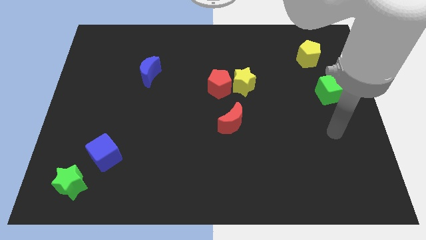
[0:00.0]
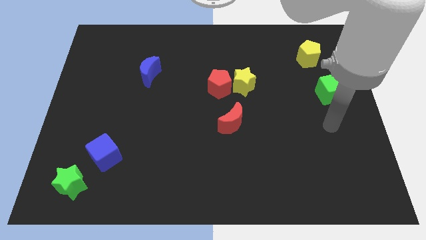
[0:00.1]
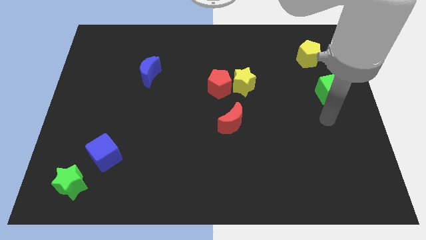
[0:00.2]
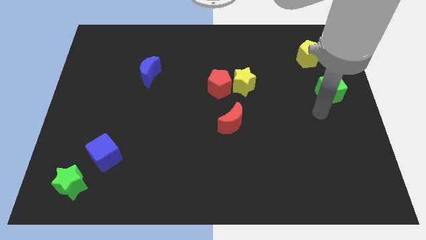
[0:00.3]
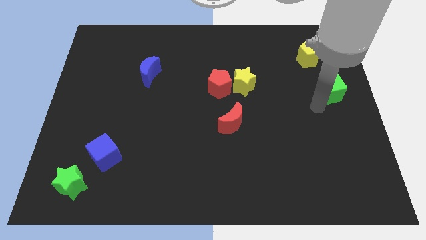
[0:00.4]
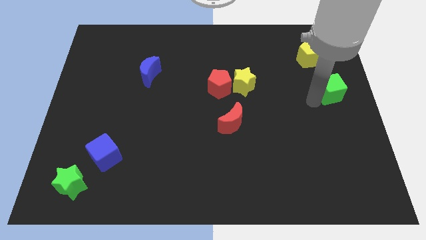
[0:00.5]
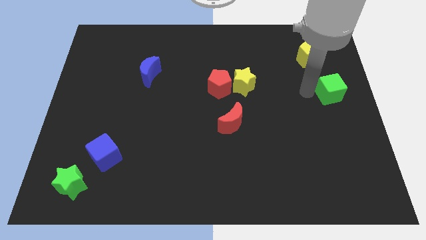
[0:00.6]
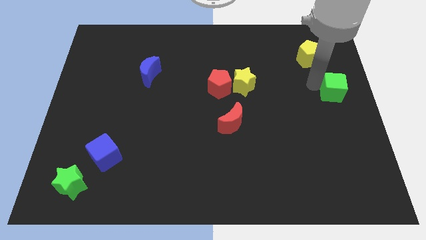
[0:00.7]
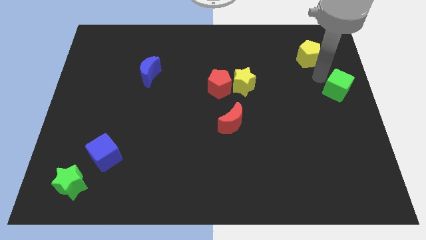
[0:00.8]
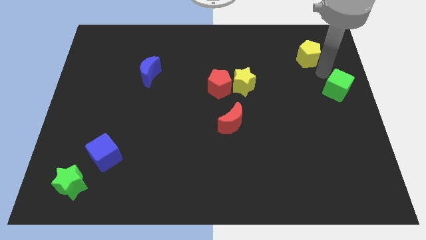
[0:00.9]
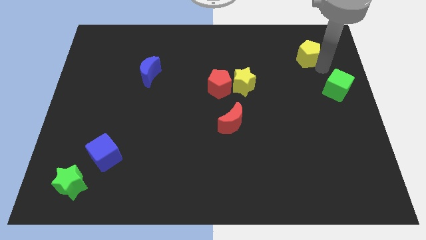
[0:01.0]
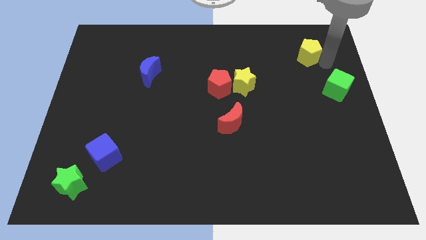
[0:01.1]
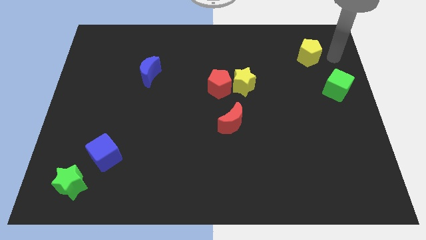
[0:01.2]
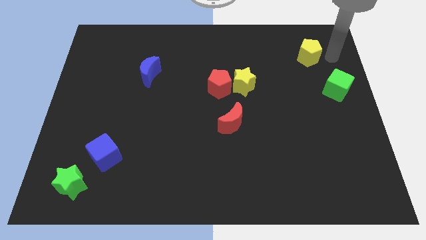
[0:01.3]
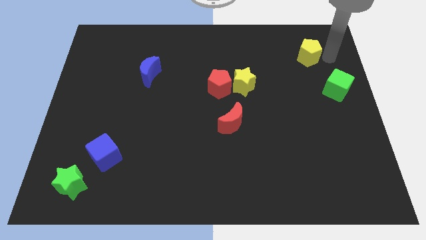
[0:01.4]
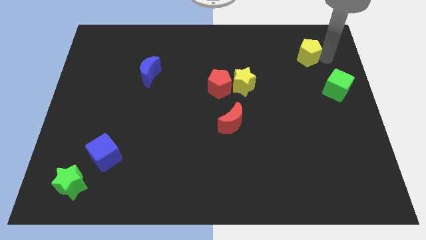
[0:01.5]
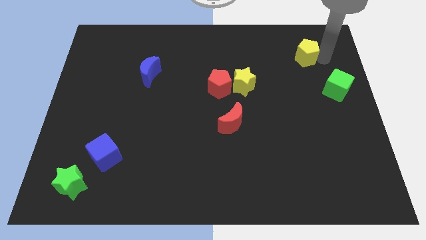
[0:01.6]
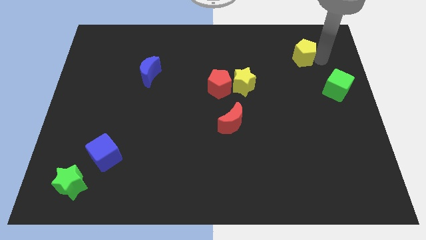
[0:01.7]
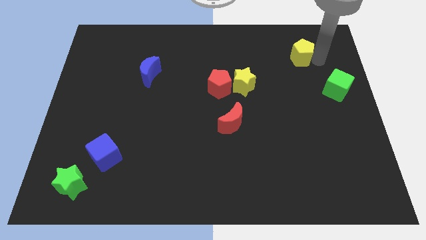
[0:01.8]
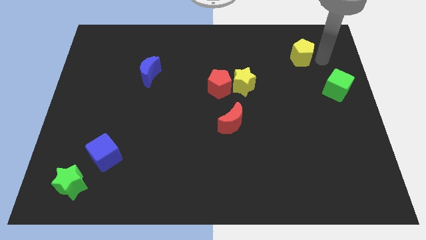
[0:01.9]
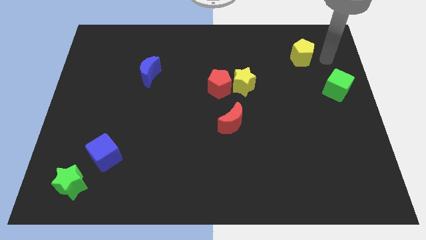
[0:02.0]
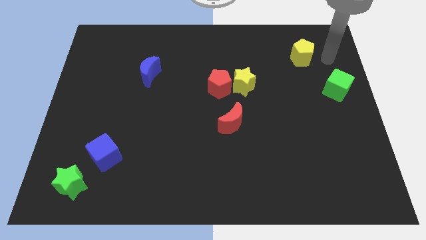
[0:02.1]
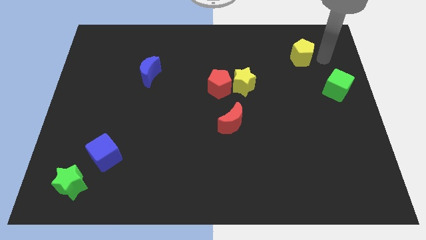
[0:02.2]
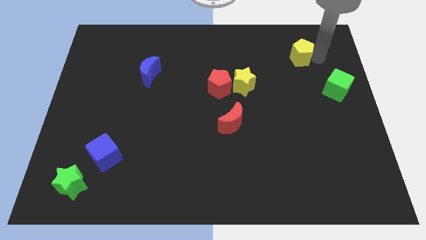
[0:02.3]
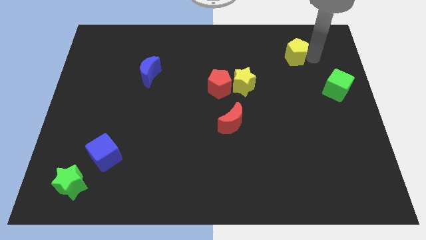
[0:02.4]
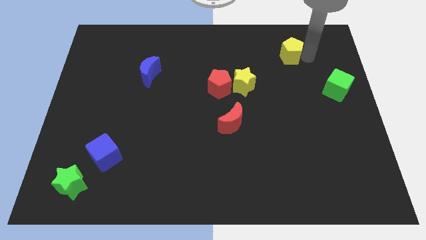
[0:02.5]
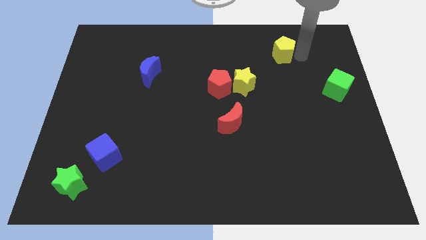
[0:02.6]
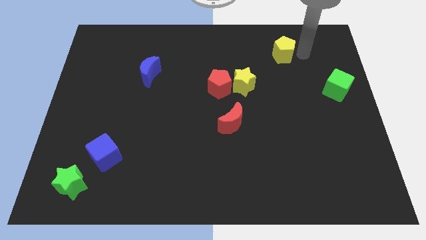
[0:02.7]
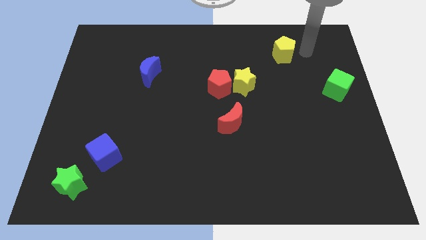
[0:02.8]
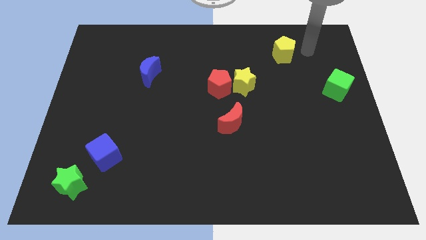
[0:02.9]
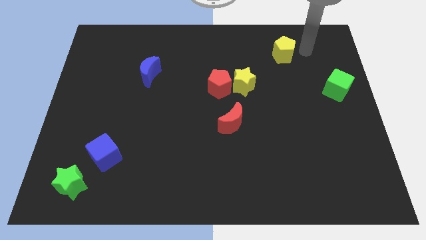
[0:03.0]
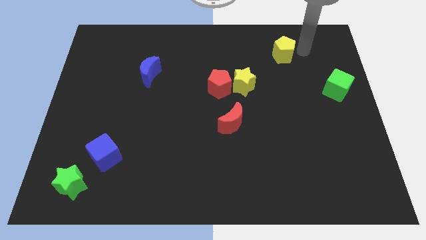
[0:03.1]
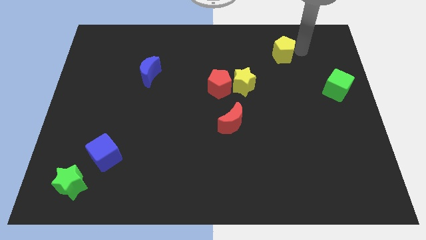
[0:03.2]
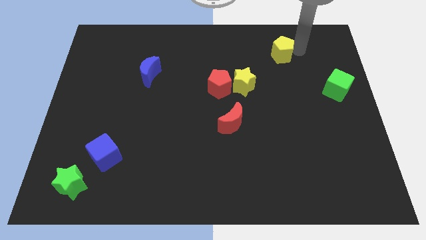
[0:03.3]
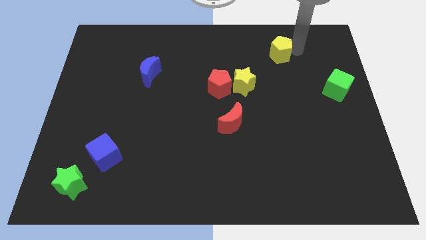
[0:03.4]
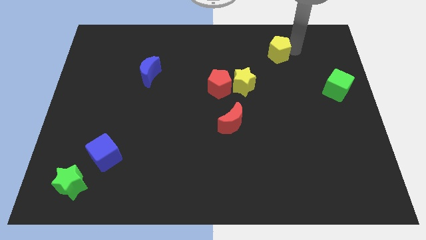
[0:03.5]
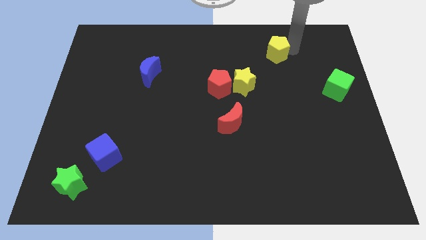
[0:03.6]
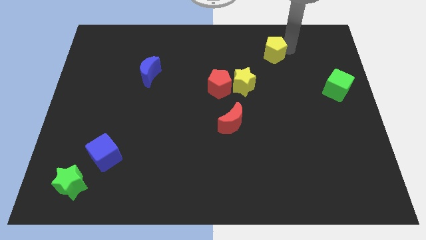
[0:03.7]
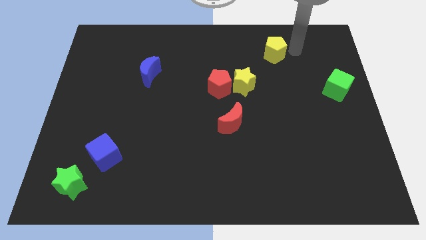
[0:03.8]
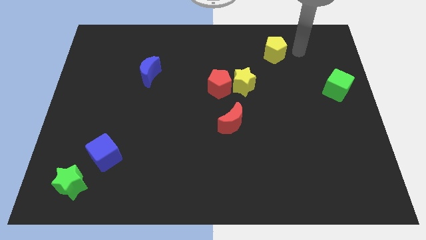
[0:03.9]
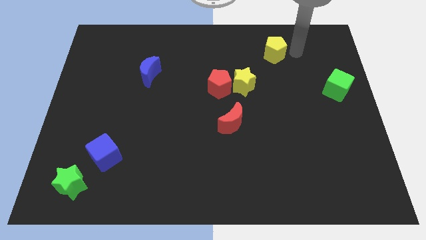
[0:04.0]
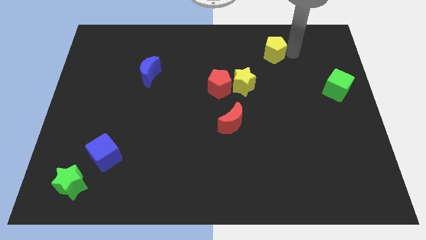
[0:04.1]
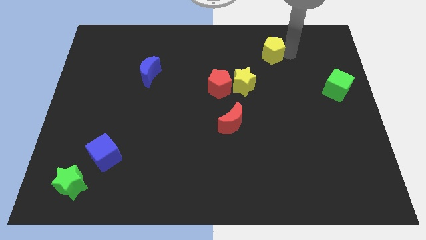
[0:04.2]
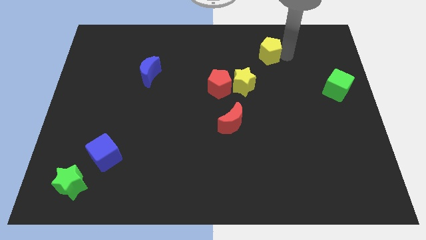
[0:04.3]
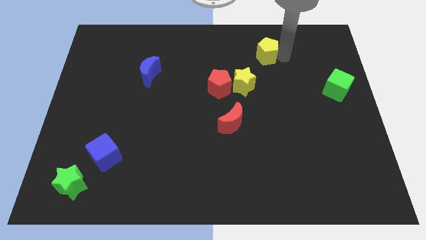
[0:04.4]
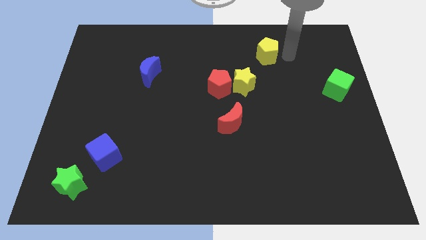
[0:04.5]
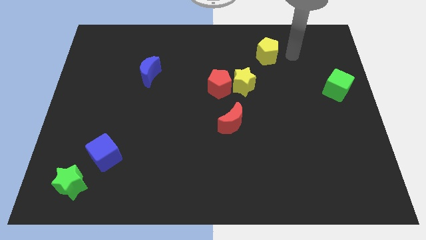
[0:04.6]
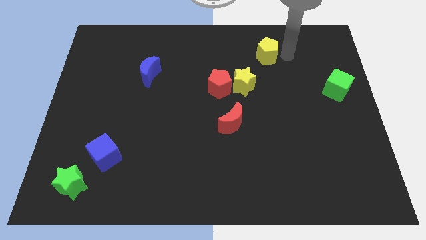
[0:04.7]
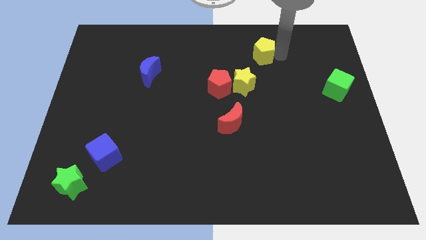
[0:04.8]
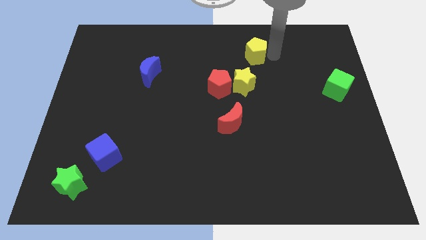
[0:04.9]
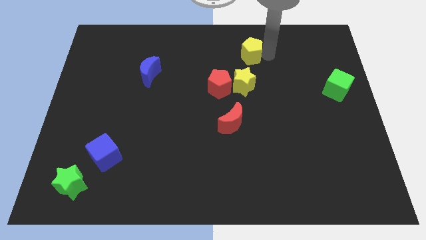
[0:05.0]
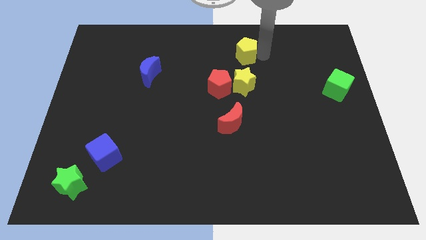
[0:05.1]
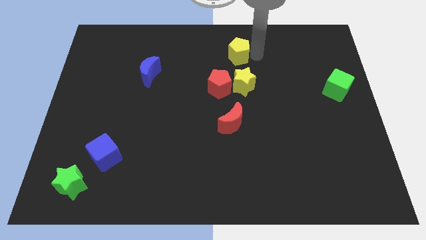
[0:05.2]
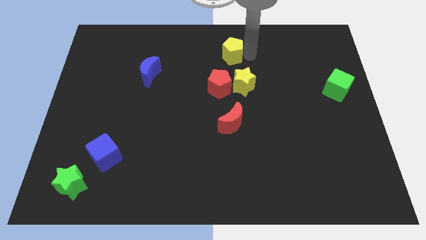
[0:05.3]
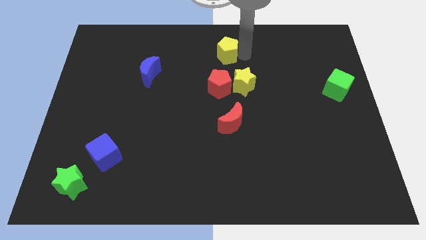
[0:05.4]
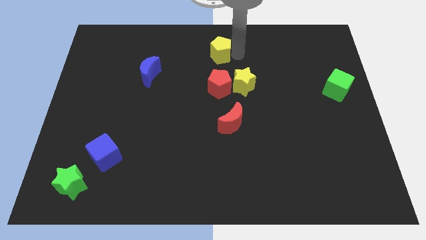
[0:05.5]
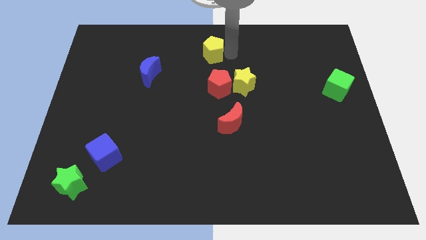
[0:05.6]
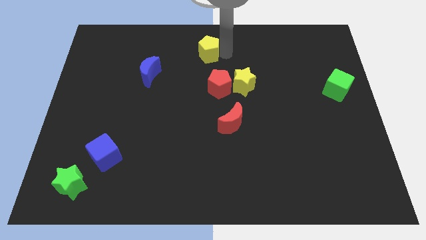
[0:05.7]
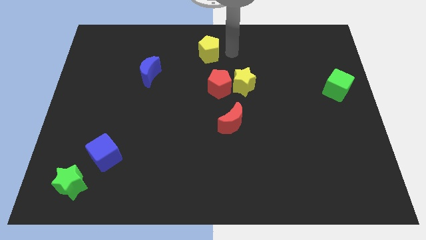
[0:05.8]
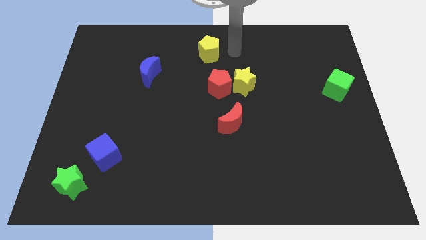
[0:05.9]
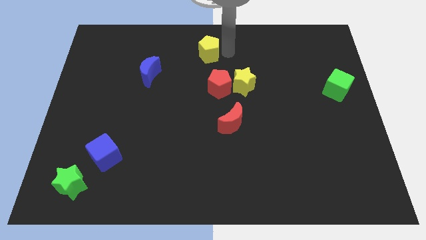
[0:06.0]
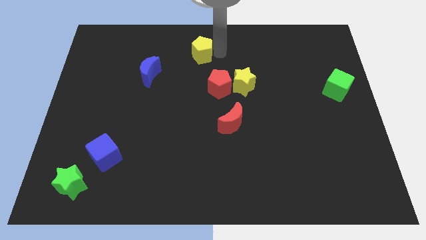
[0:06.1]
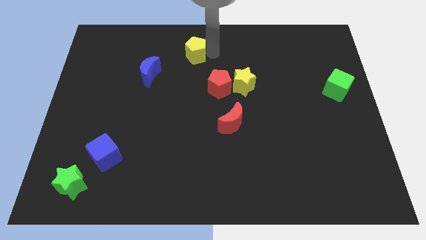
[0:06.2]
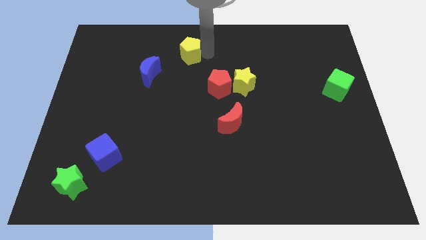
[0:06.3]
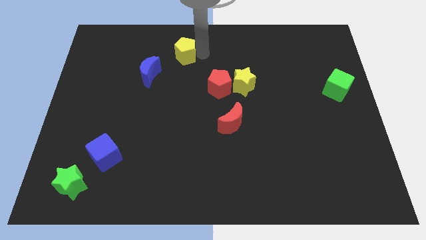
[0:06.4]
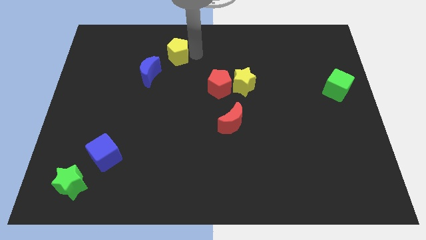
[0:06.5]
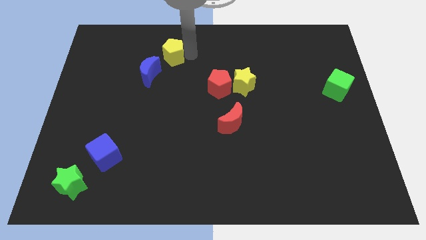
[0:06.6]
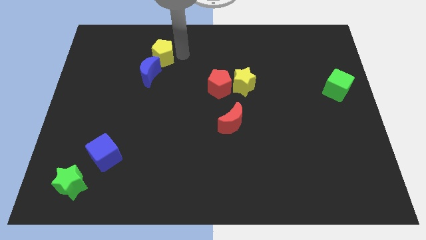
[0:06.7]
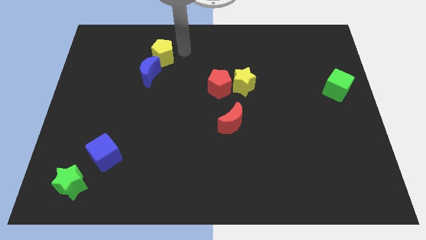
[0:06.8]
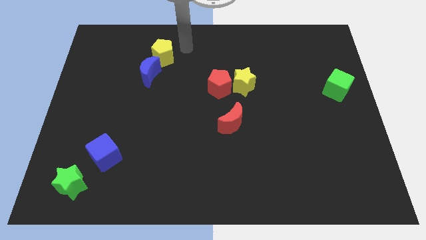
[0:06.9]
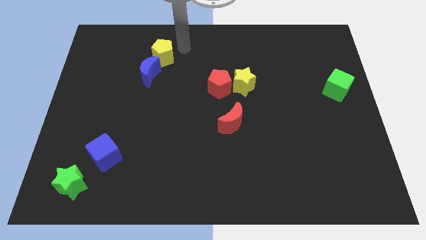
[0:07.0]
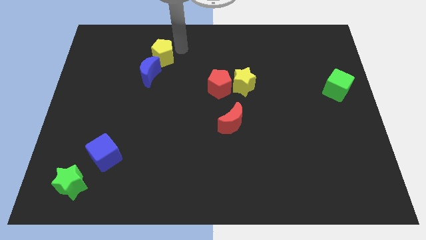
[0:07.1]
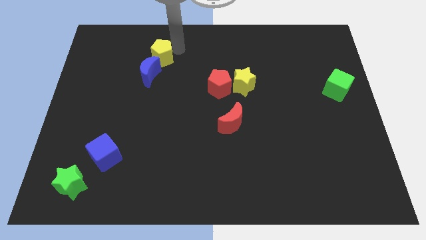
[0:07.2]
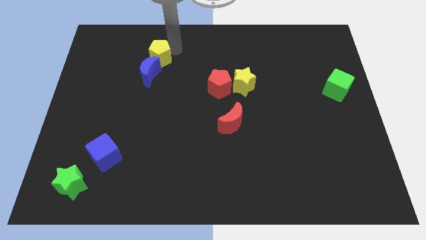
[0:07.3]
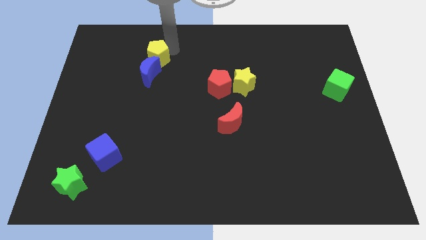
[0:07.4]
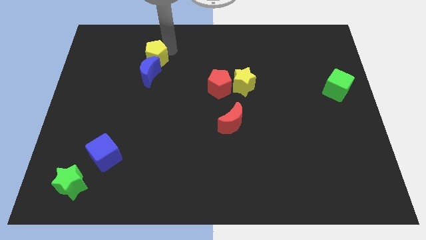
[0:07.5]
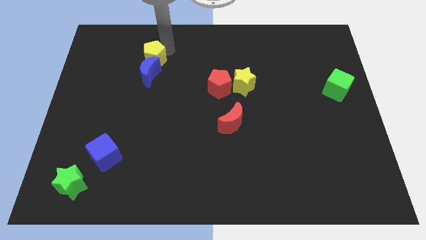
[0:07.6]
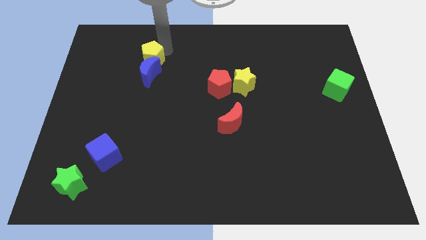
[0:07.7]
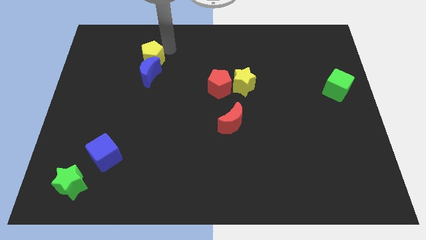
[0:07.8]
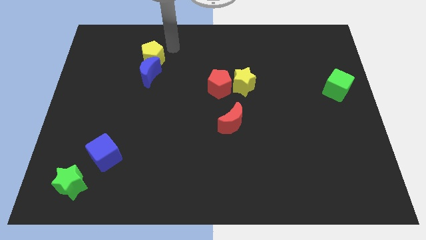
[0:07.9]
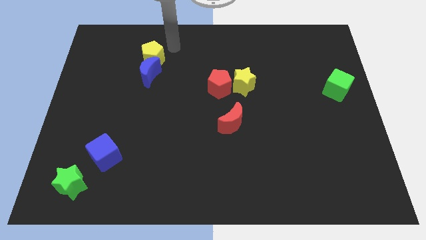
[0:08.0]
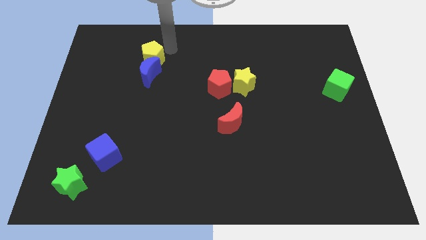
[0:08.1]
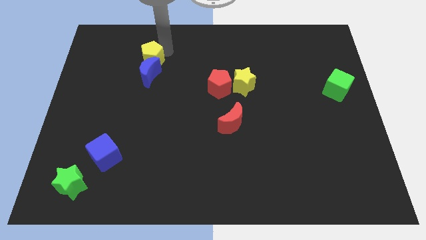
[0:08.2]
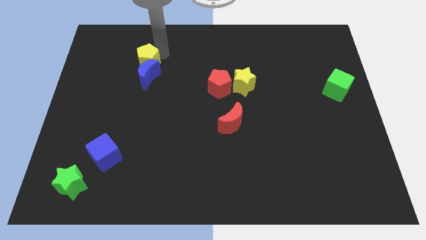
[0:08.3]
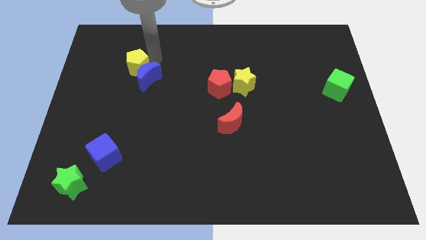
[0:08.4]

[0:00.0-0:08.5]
push the yellow pentagon left of the blue moon
